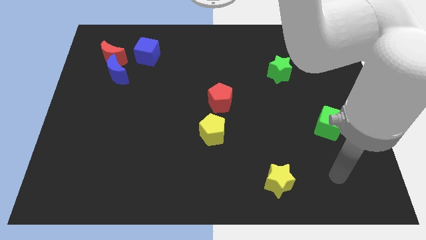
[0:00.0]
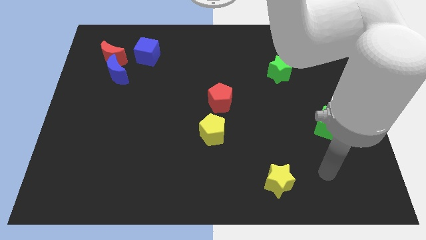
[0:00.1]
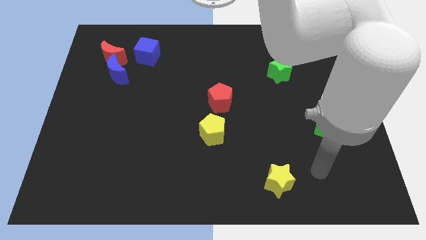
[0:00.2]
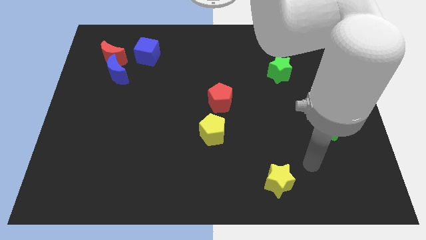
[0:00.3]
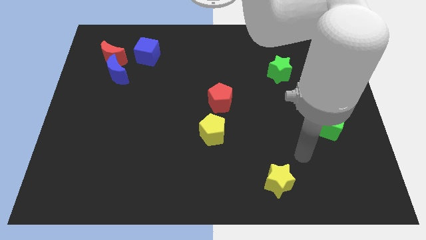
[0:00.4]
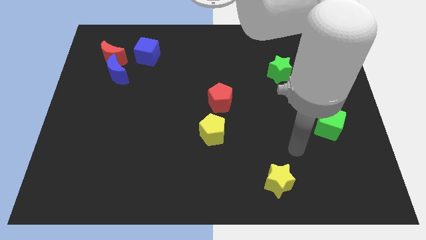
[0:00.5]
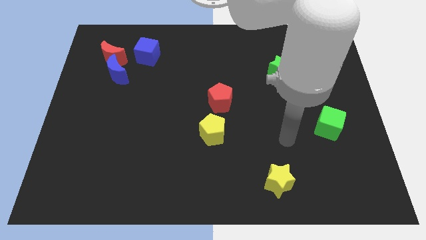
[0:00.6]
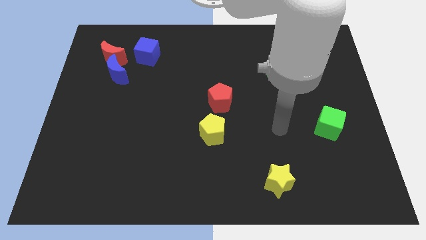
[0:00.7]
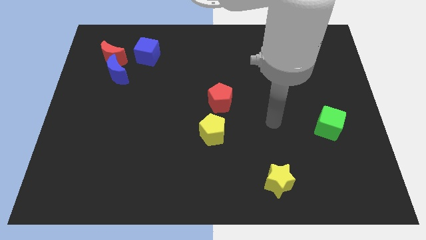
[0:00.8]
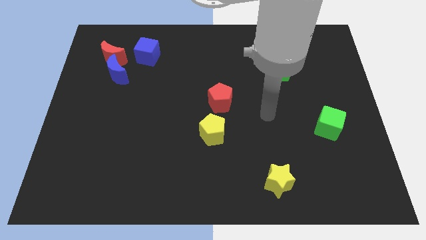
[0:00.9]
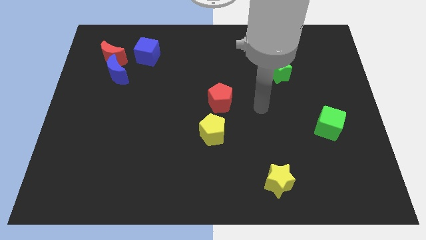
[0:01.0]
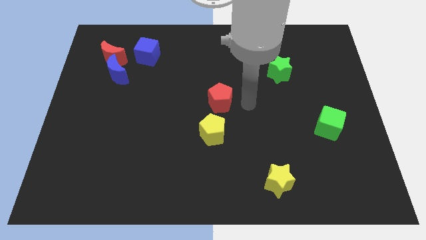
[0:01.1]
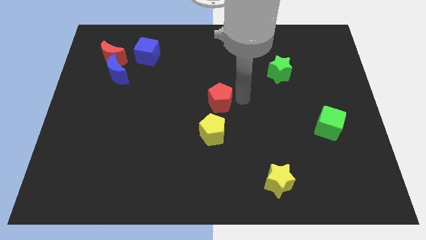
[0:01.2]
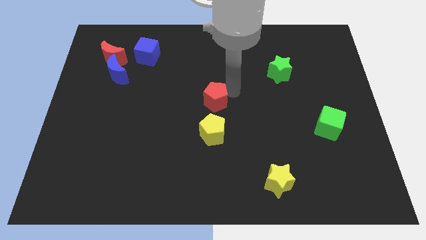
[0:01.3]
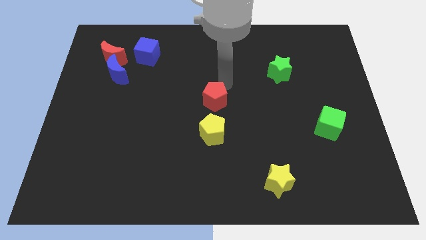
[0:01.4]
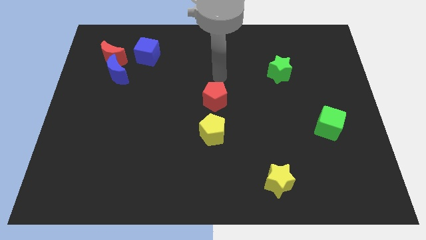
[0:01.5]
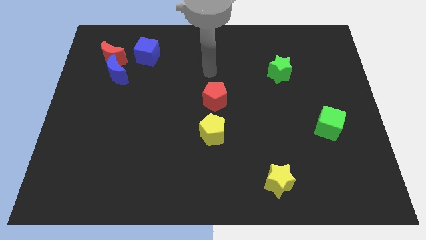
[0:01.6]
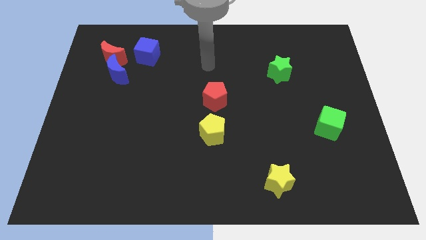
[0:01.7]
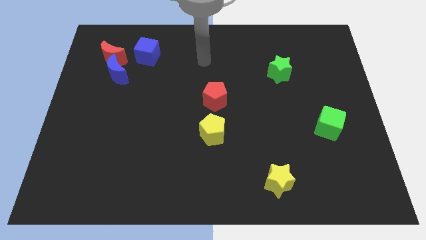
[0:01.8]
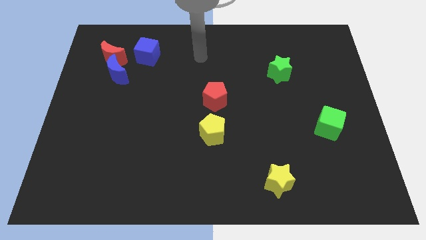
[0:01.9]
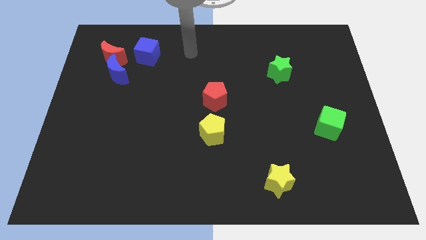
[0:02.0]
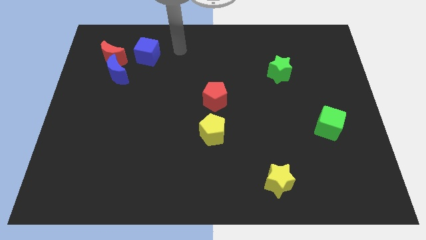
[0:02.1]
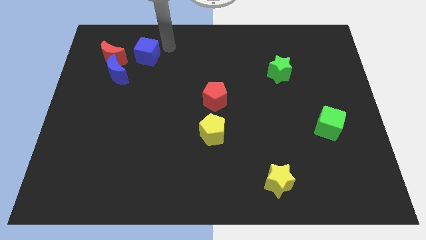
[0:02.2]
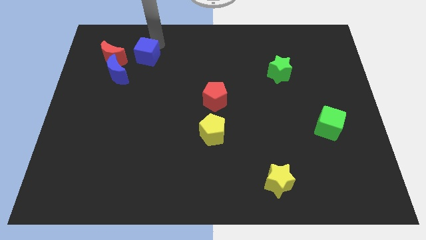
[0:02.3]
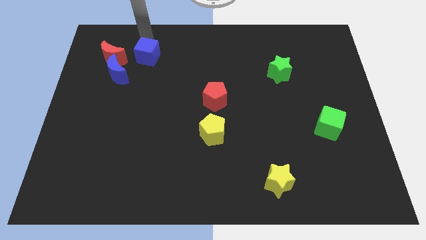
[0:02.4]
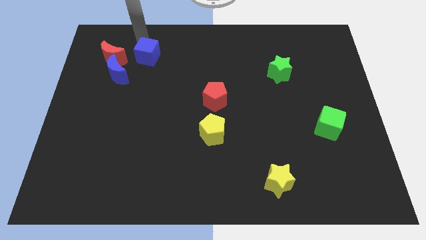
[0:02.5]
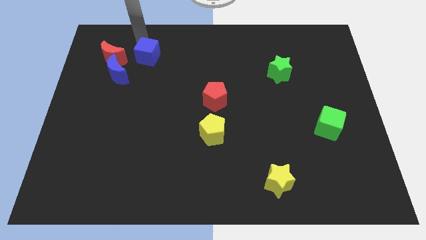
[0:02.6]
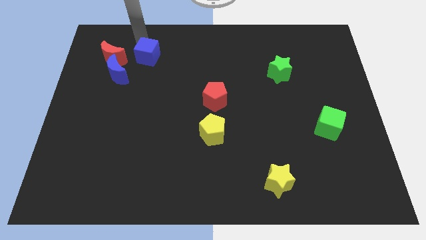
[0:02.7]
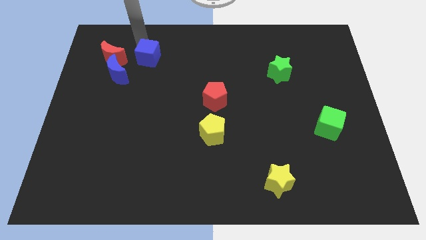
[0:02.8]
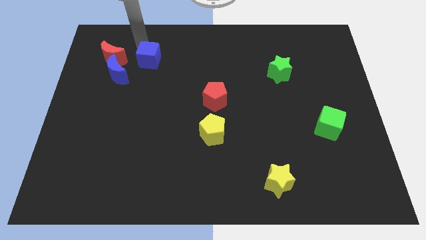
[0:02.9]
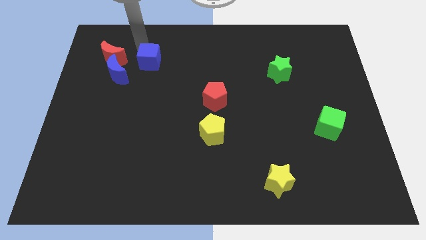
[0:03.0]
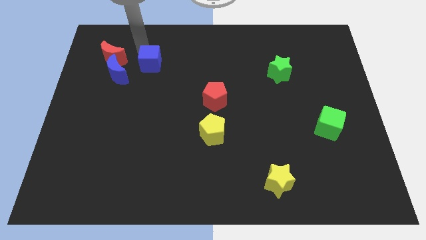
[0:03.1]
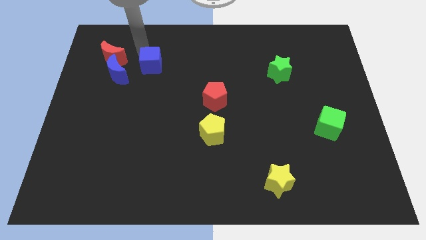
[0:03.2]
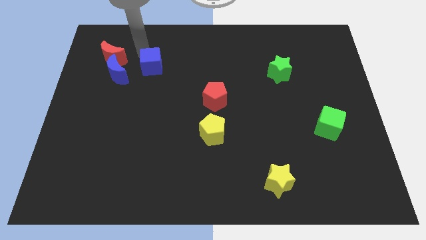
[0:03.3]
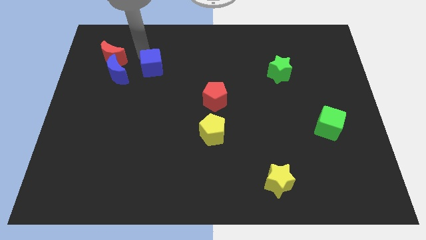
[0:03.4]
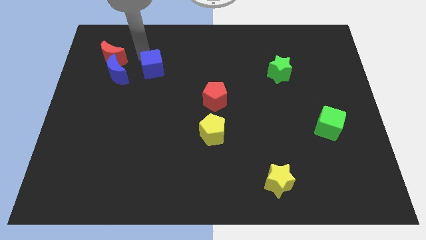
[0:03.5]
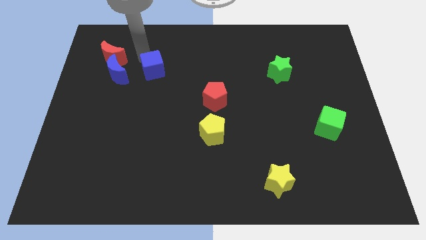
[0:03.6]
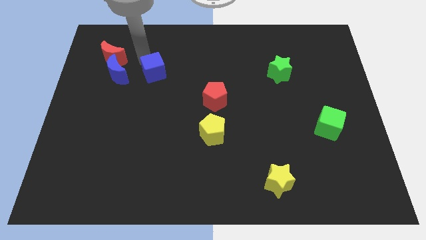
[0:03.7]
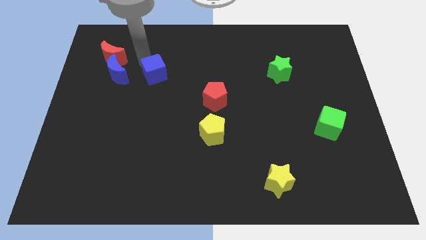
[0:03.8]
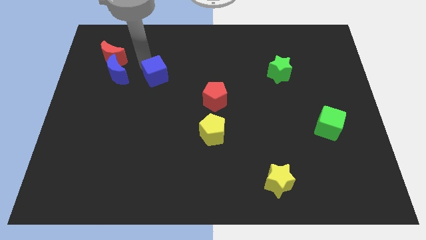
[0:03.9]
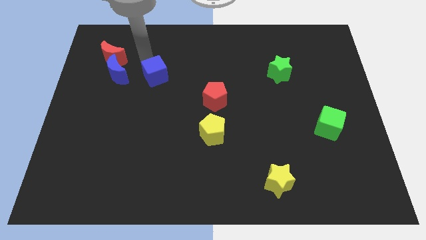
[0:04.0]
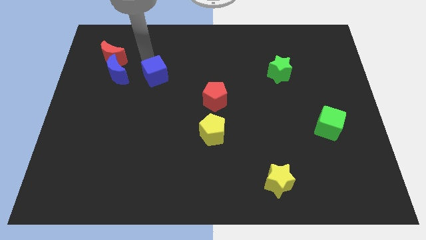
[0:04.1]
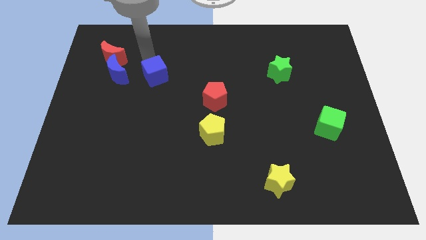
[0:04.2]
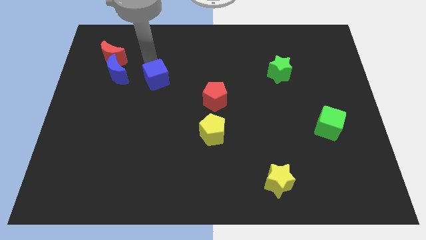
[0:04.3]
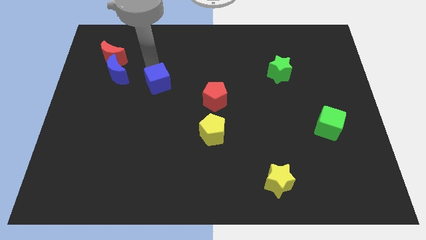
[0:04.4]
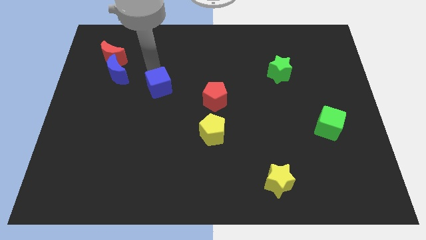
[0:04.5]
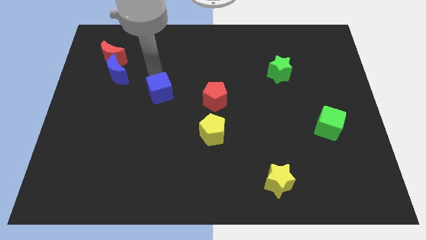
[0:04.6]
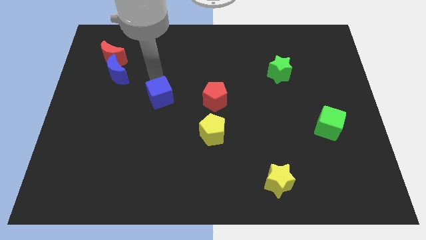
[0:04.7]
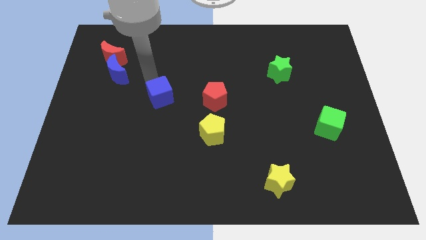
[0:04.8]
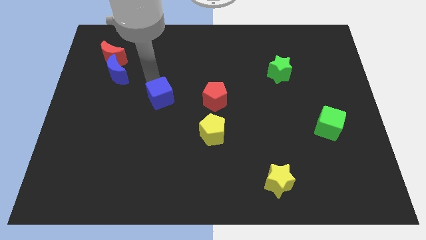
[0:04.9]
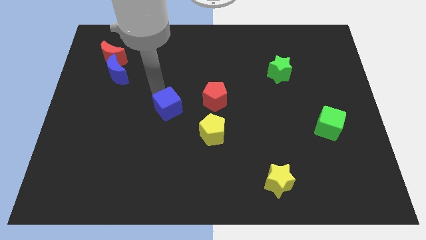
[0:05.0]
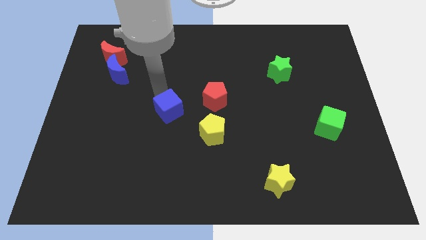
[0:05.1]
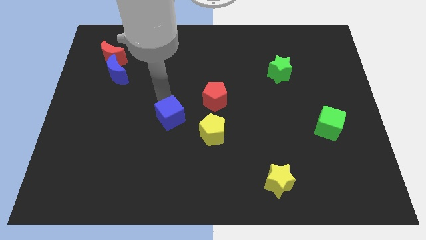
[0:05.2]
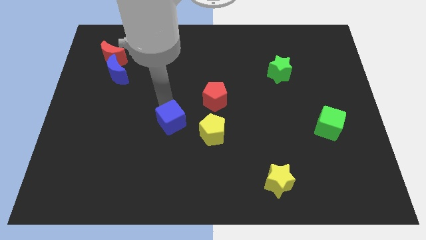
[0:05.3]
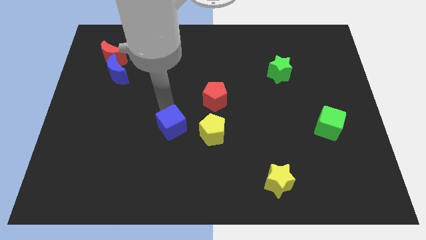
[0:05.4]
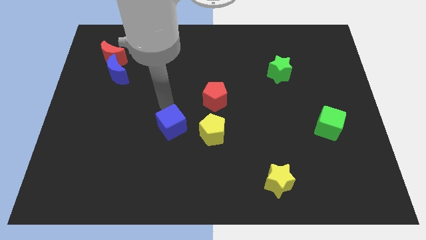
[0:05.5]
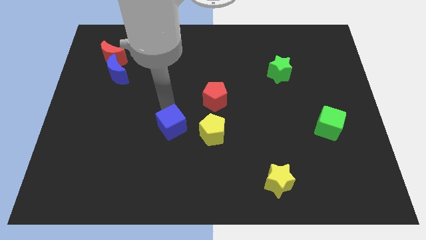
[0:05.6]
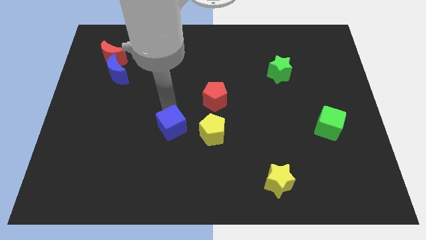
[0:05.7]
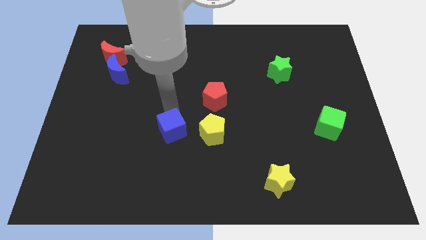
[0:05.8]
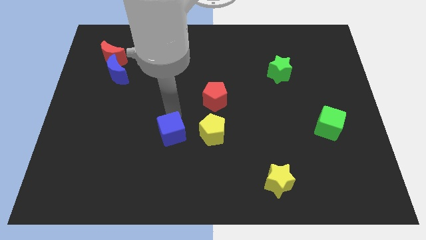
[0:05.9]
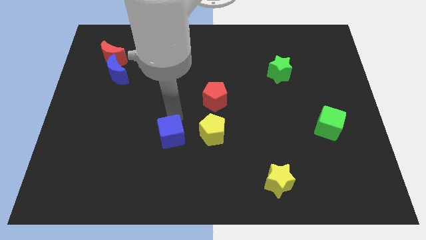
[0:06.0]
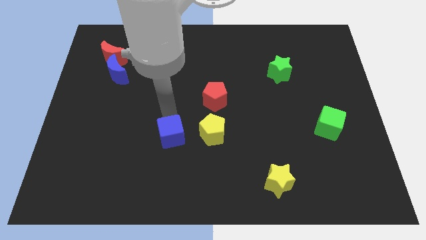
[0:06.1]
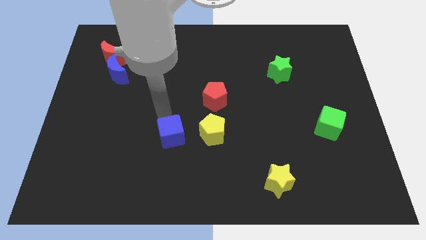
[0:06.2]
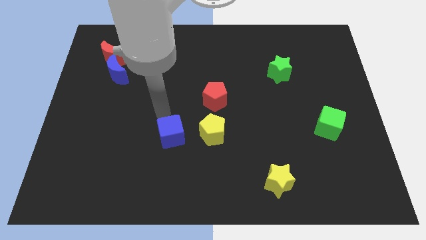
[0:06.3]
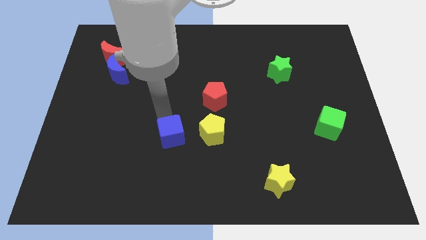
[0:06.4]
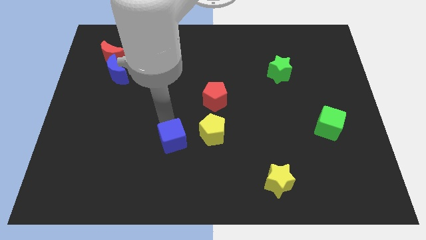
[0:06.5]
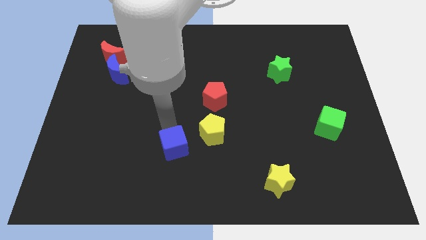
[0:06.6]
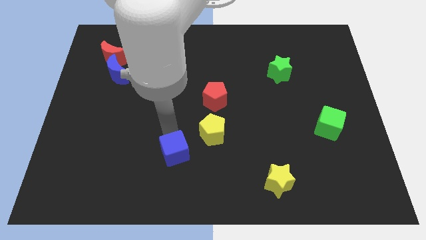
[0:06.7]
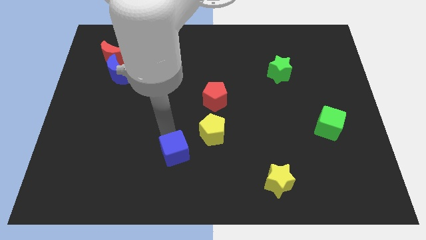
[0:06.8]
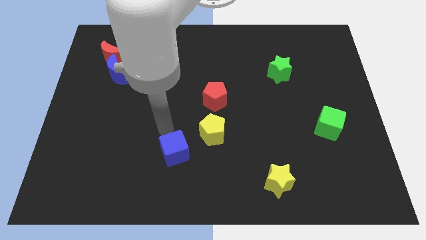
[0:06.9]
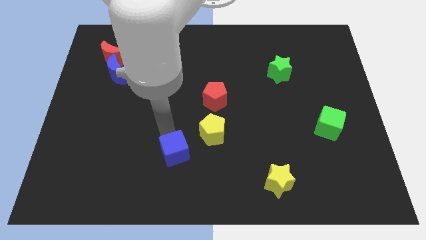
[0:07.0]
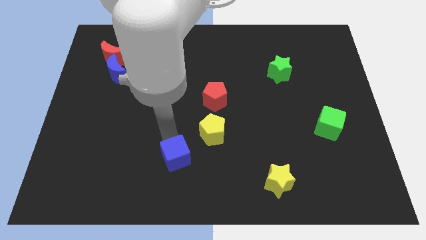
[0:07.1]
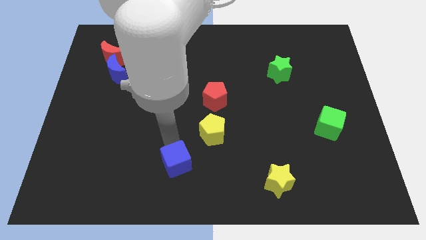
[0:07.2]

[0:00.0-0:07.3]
slide the blue cube to the bottom side
